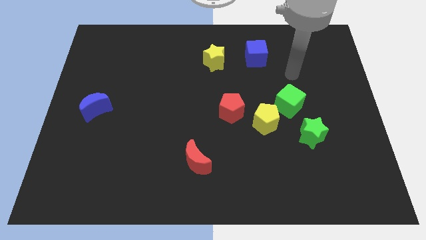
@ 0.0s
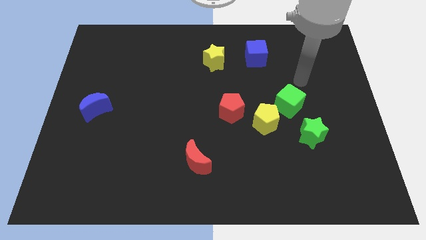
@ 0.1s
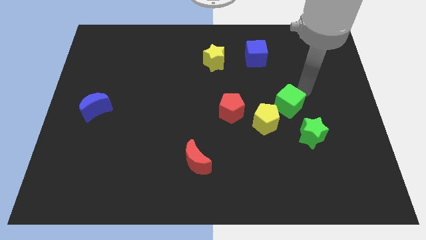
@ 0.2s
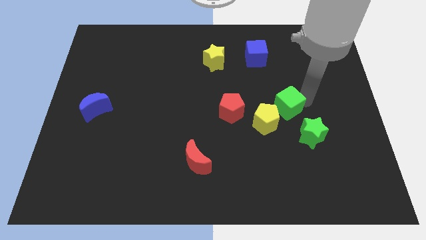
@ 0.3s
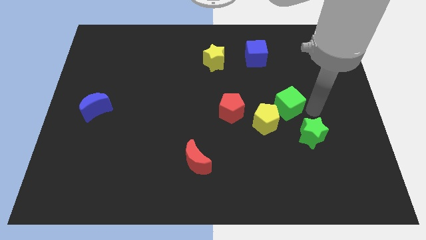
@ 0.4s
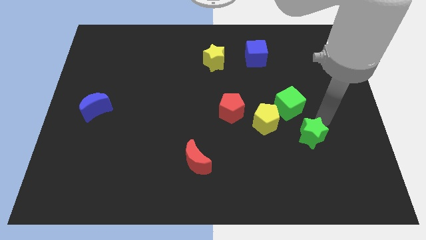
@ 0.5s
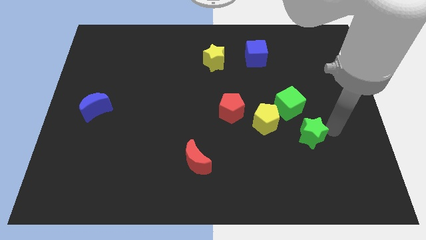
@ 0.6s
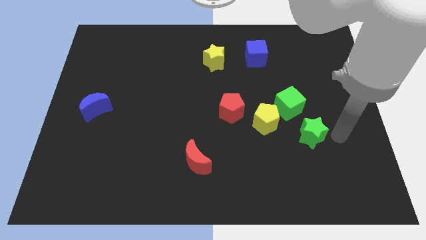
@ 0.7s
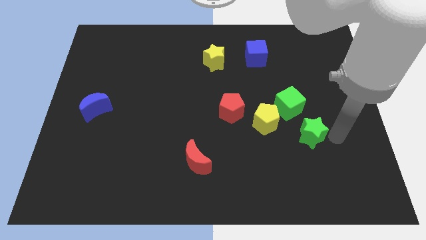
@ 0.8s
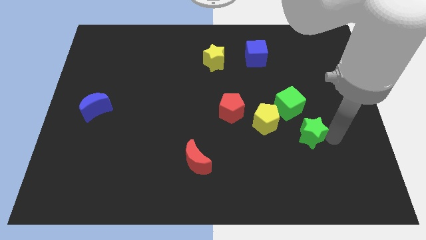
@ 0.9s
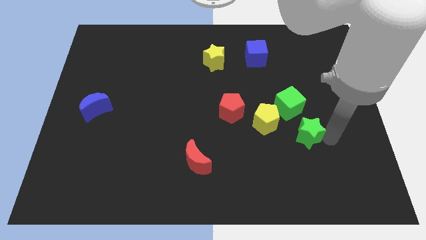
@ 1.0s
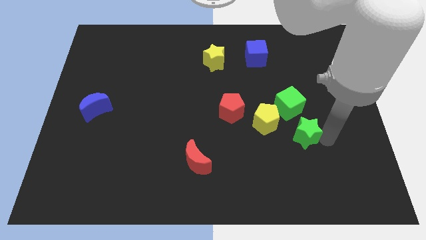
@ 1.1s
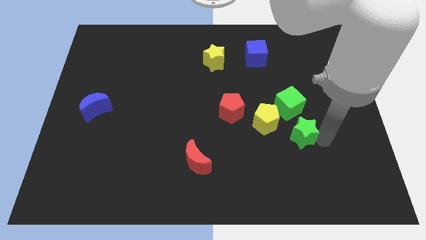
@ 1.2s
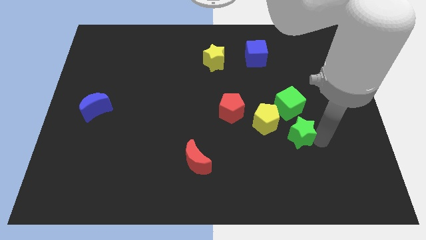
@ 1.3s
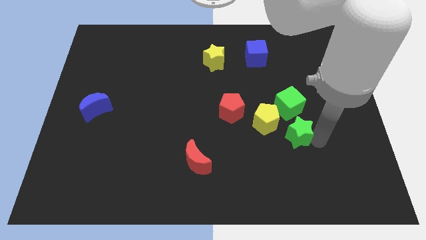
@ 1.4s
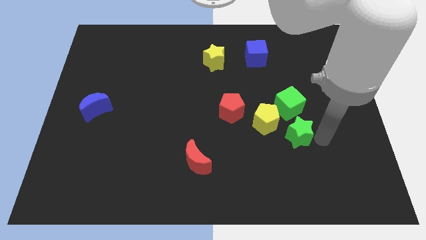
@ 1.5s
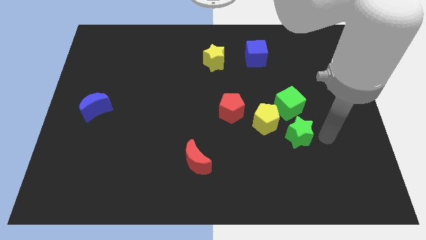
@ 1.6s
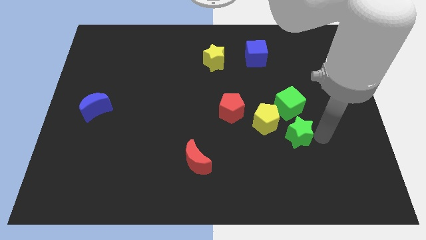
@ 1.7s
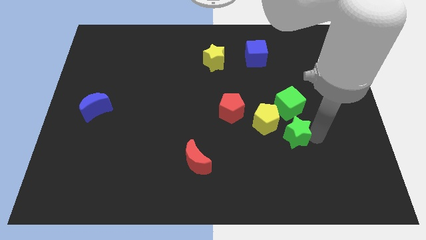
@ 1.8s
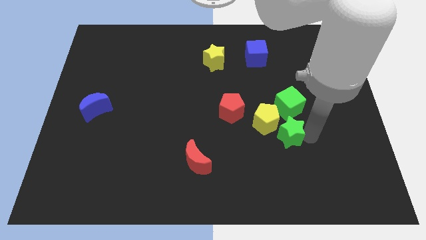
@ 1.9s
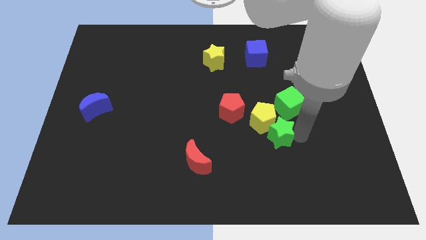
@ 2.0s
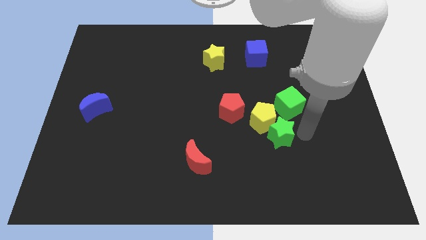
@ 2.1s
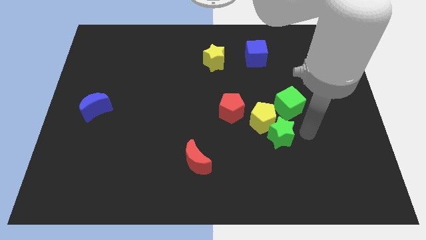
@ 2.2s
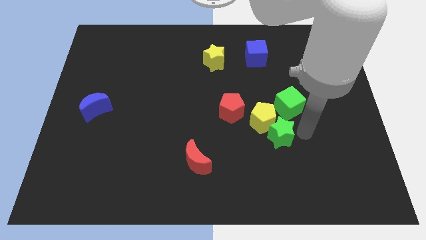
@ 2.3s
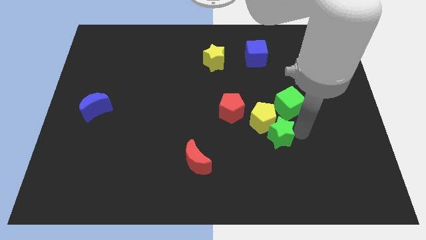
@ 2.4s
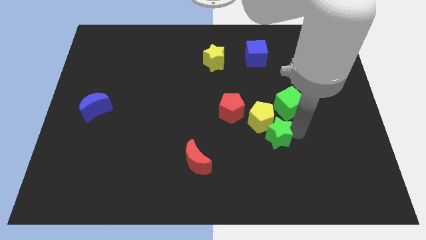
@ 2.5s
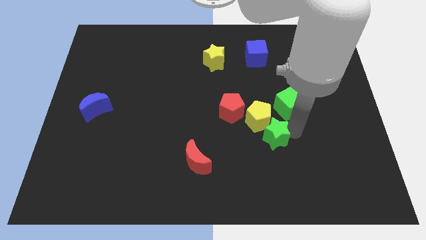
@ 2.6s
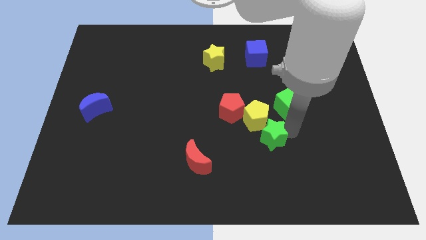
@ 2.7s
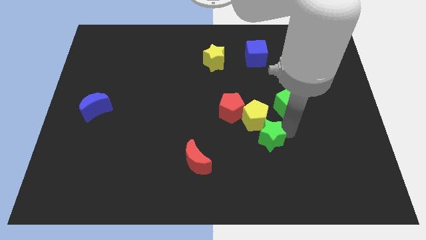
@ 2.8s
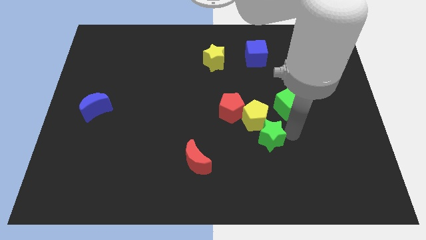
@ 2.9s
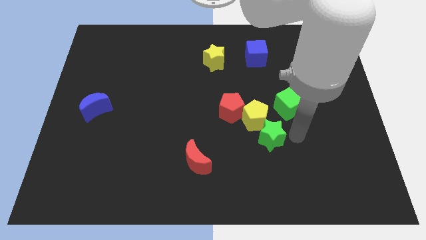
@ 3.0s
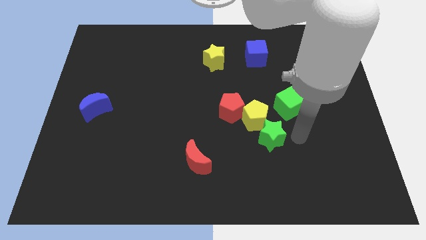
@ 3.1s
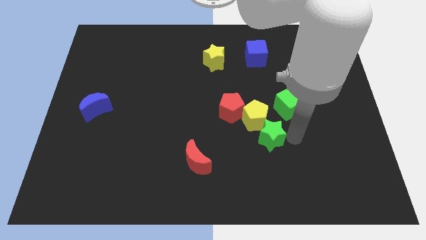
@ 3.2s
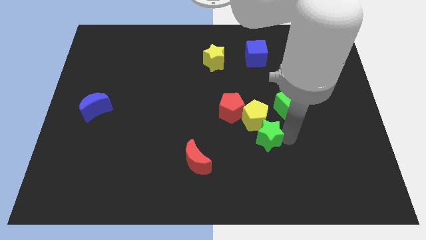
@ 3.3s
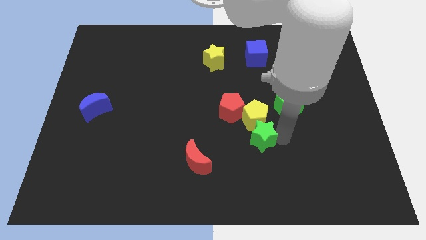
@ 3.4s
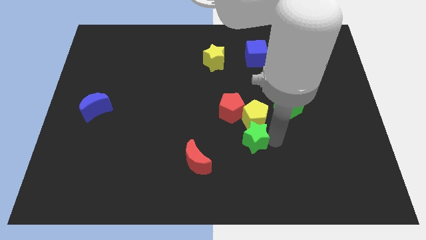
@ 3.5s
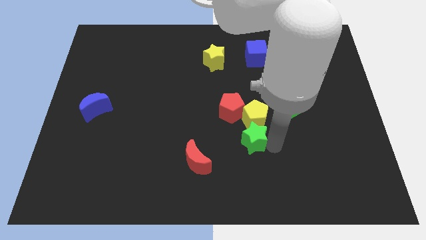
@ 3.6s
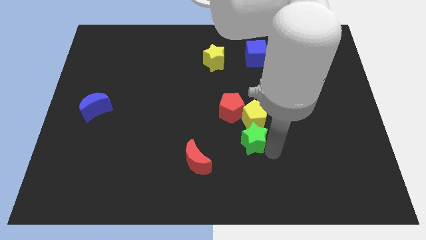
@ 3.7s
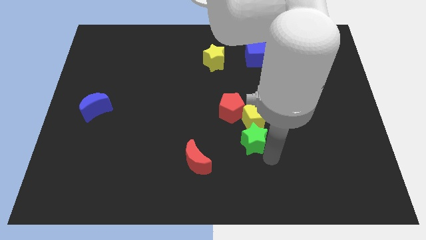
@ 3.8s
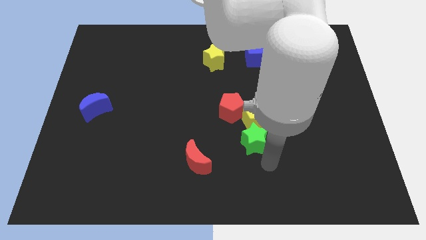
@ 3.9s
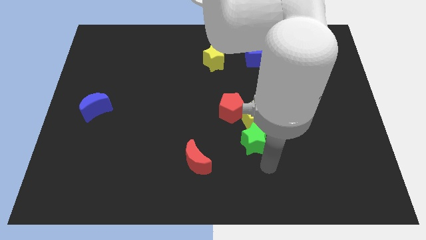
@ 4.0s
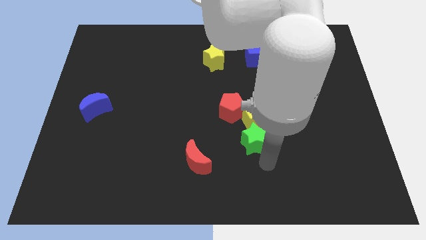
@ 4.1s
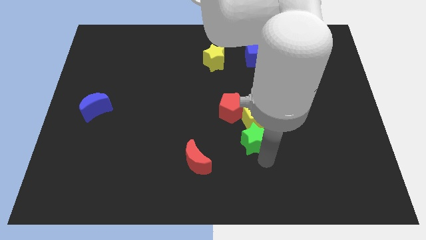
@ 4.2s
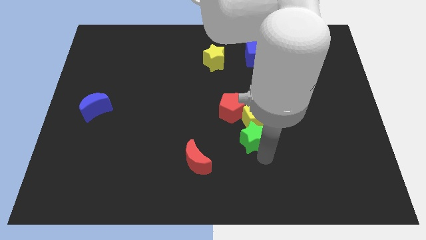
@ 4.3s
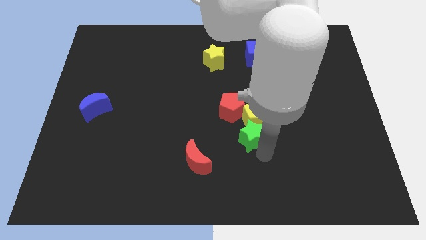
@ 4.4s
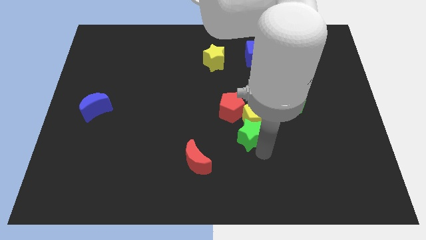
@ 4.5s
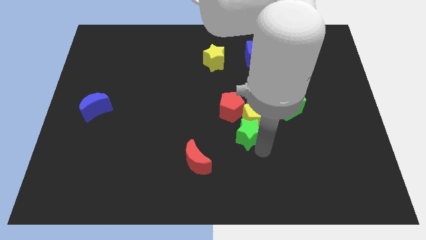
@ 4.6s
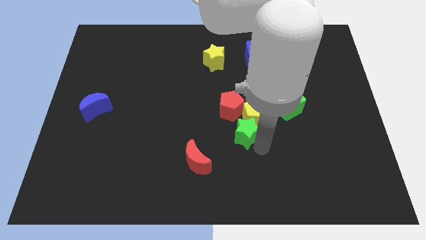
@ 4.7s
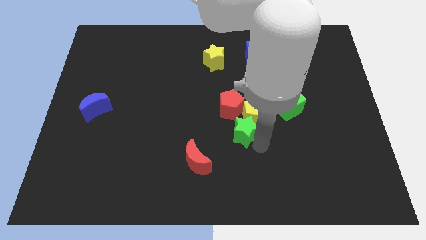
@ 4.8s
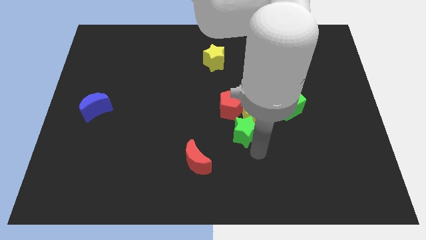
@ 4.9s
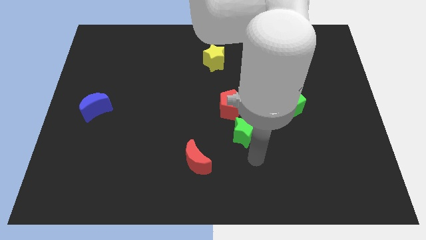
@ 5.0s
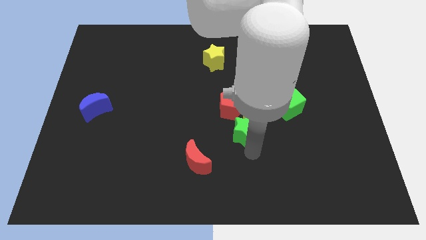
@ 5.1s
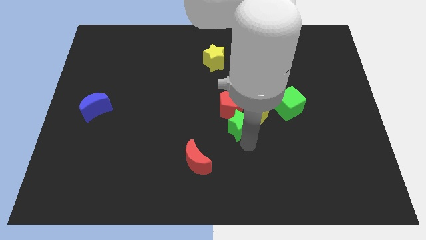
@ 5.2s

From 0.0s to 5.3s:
push the green star to the red pentagon

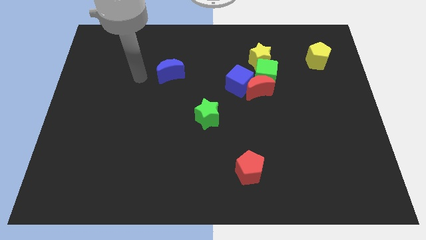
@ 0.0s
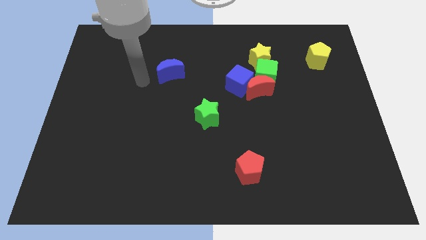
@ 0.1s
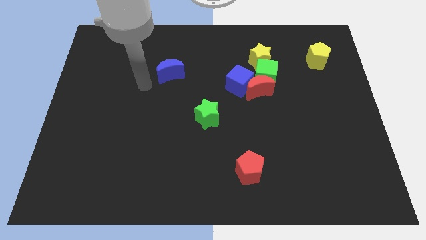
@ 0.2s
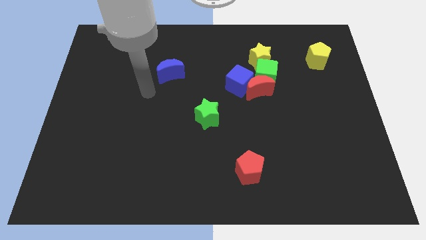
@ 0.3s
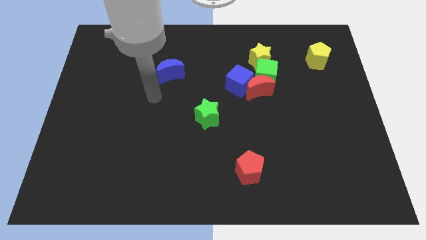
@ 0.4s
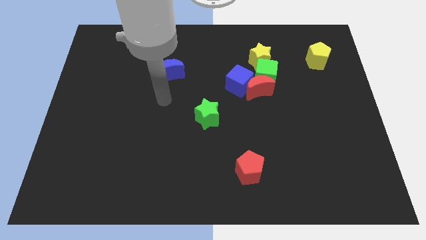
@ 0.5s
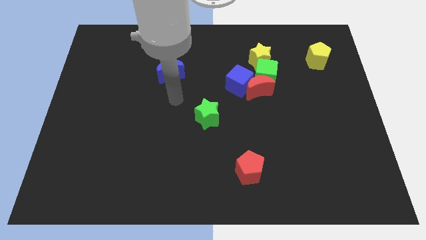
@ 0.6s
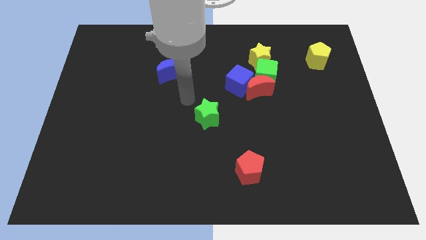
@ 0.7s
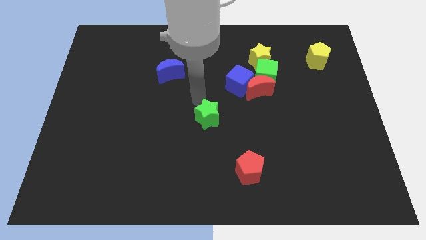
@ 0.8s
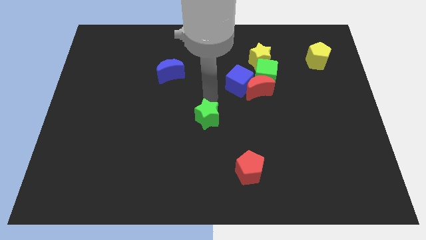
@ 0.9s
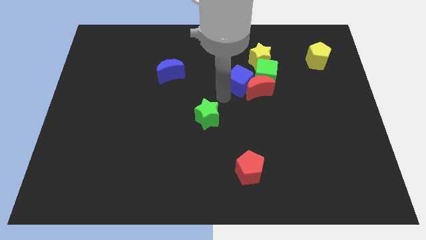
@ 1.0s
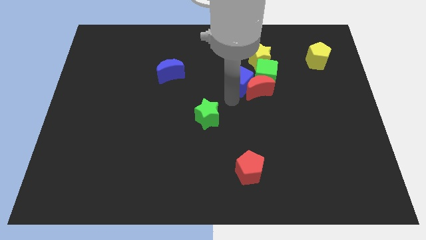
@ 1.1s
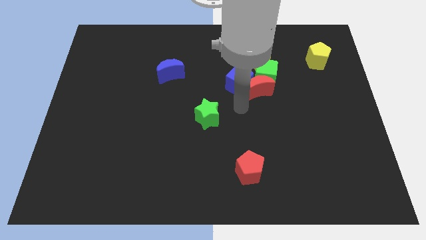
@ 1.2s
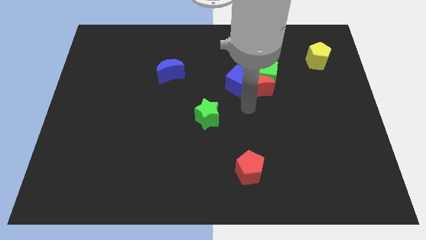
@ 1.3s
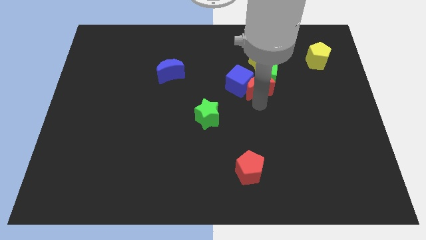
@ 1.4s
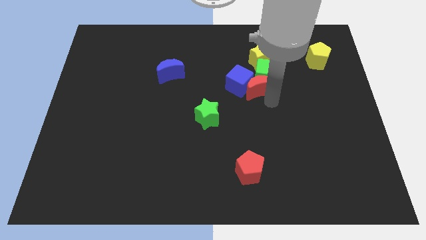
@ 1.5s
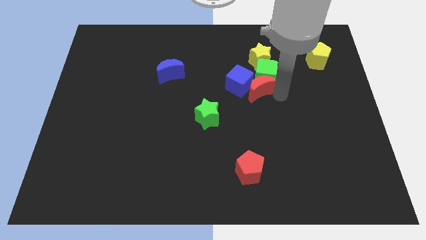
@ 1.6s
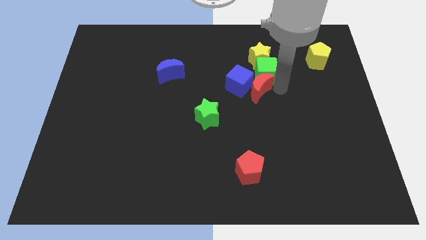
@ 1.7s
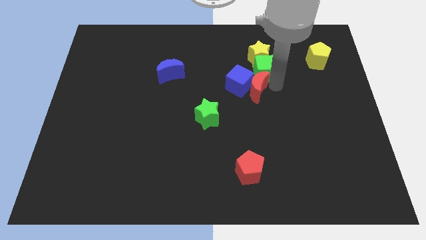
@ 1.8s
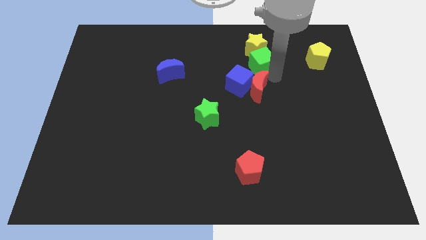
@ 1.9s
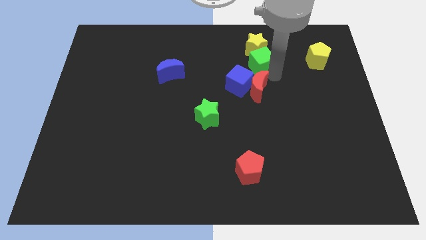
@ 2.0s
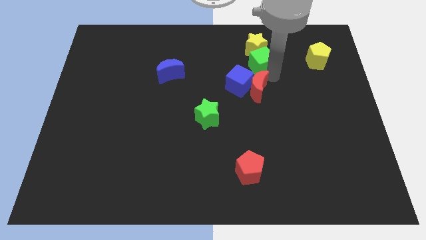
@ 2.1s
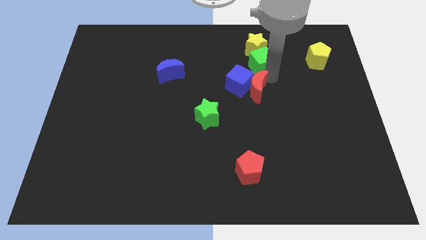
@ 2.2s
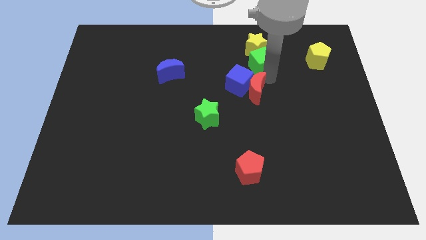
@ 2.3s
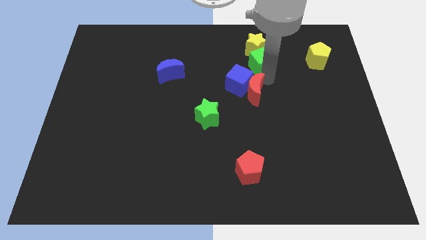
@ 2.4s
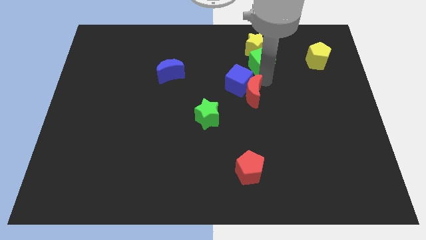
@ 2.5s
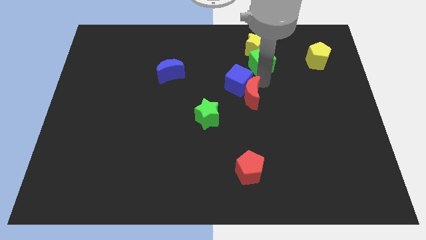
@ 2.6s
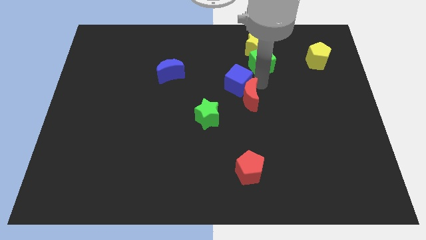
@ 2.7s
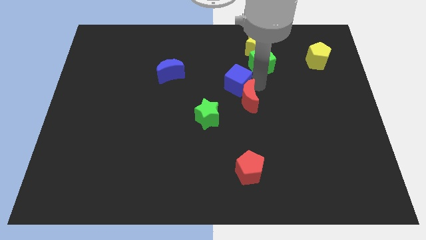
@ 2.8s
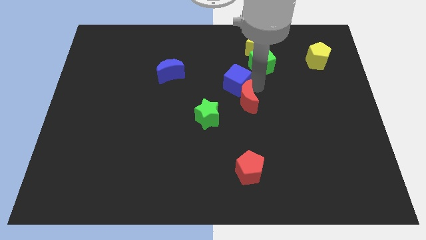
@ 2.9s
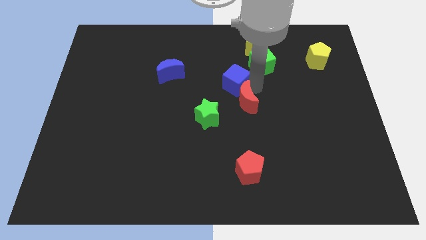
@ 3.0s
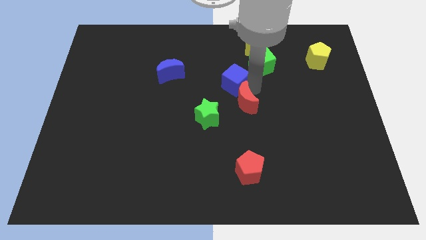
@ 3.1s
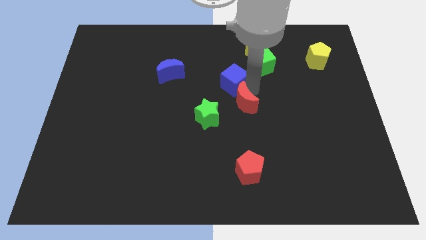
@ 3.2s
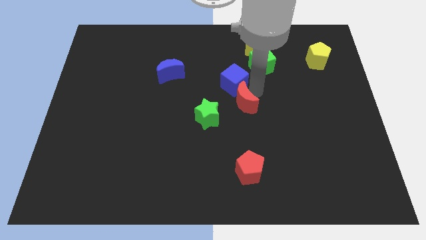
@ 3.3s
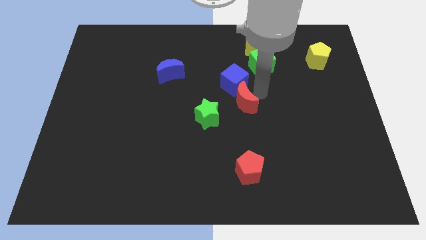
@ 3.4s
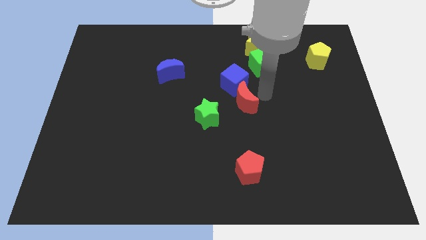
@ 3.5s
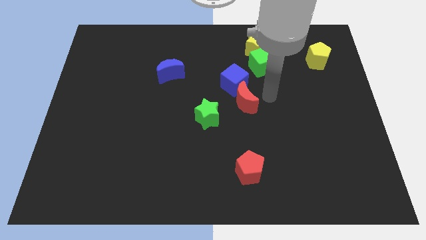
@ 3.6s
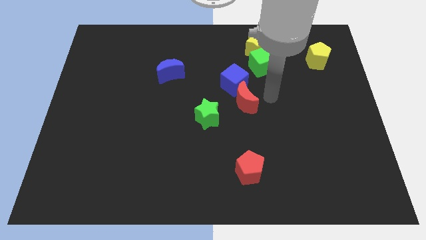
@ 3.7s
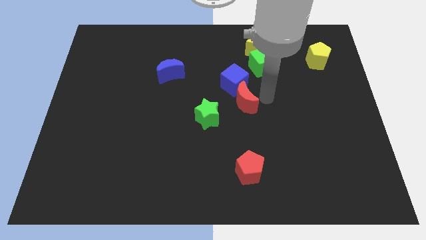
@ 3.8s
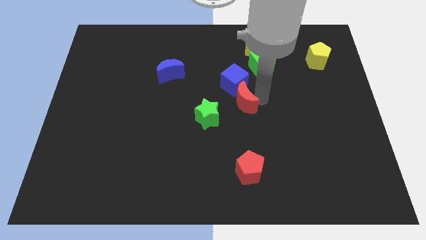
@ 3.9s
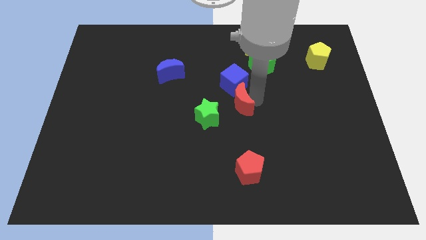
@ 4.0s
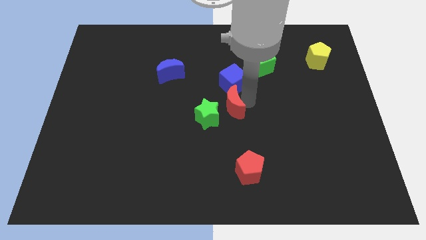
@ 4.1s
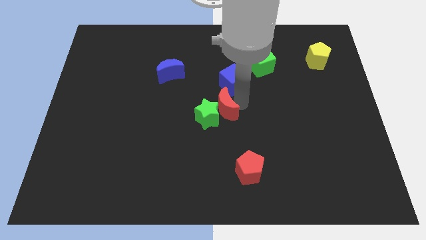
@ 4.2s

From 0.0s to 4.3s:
move the red moon to the green star
